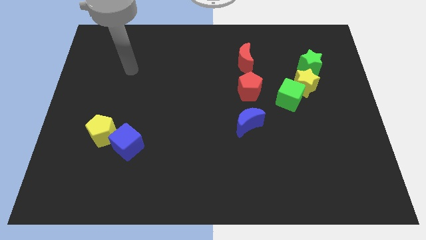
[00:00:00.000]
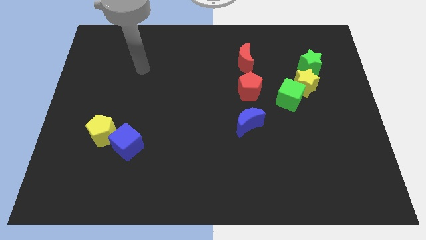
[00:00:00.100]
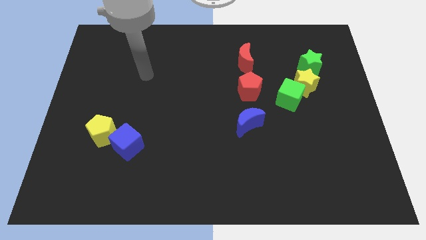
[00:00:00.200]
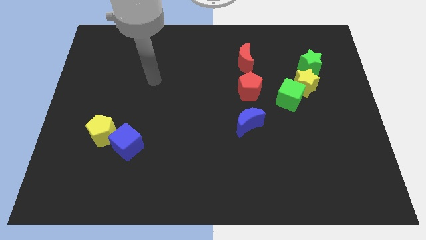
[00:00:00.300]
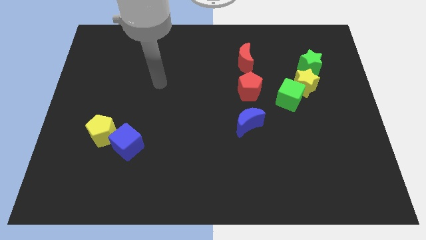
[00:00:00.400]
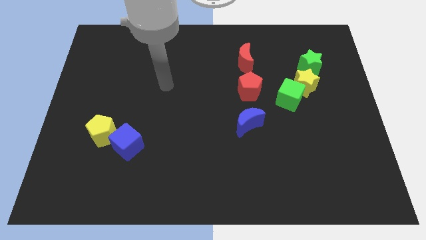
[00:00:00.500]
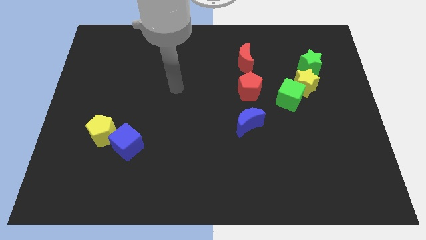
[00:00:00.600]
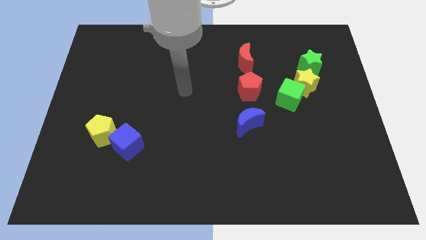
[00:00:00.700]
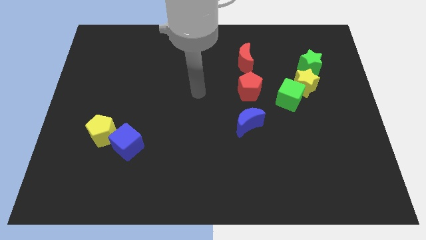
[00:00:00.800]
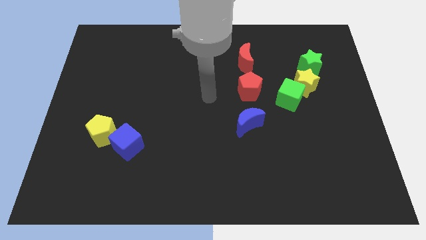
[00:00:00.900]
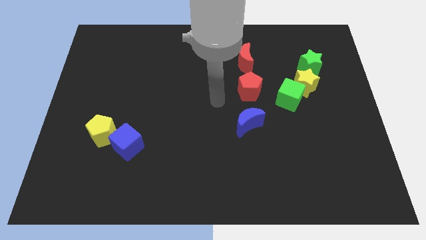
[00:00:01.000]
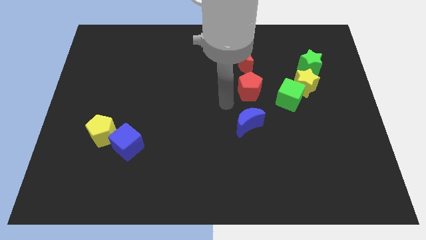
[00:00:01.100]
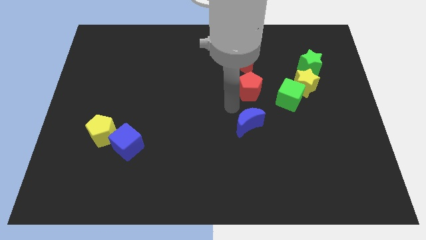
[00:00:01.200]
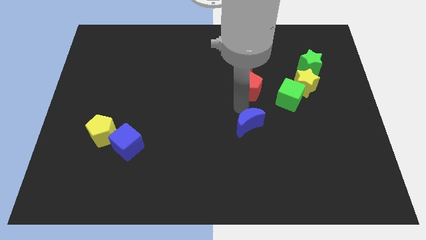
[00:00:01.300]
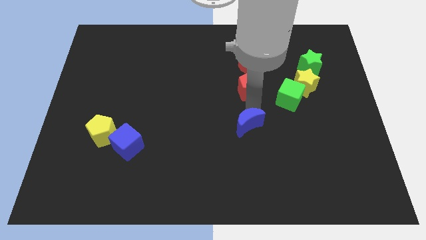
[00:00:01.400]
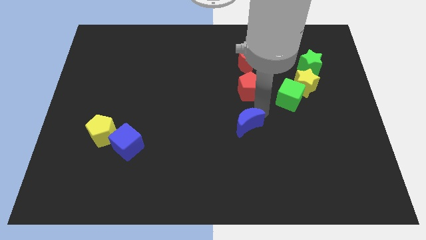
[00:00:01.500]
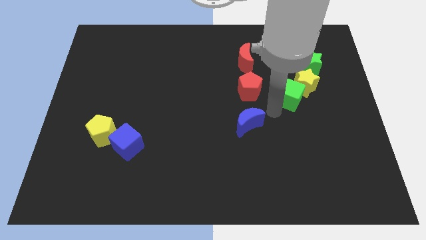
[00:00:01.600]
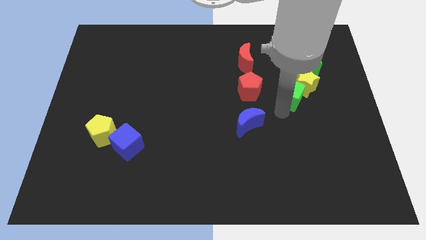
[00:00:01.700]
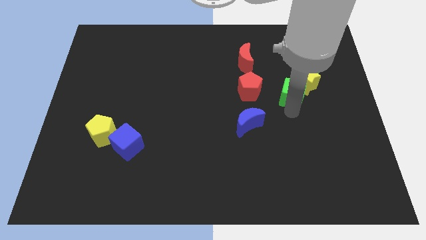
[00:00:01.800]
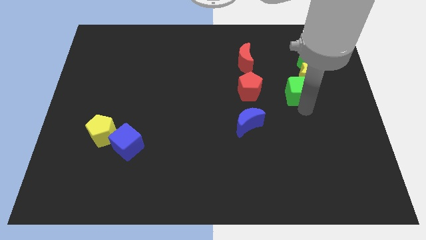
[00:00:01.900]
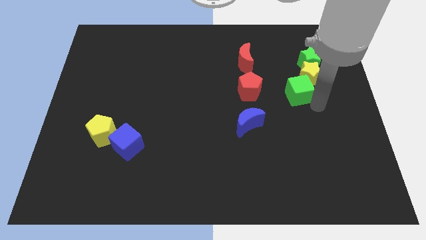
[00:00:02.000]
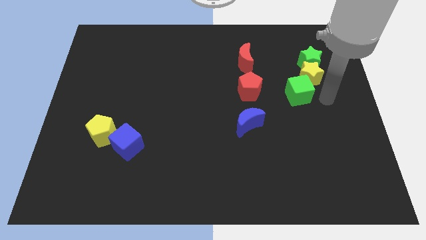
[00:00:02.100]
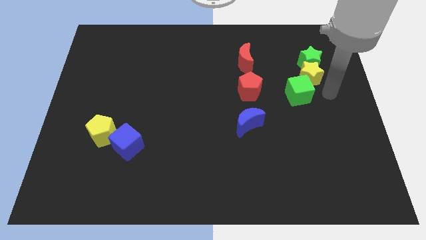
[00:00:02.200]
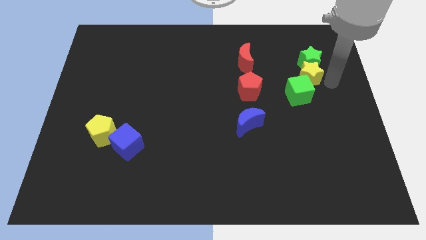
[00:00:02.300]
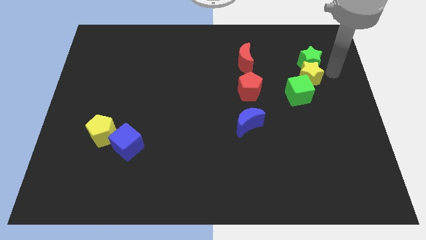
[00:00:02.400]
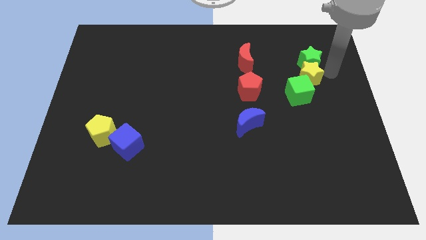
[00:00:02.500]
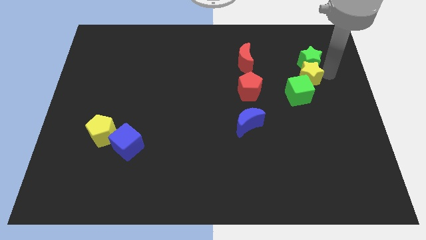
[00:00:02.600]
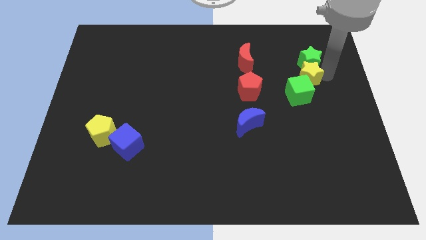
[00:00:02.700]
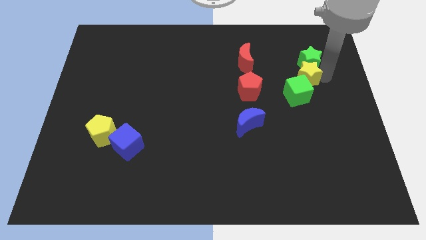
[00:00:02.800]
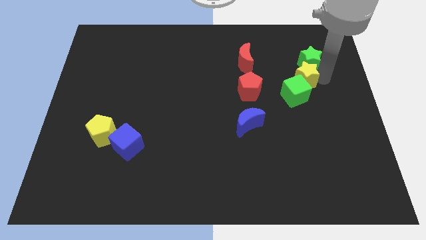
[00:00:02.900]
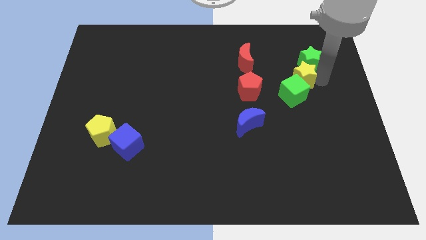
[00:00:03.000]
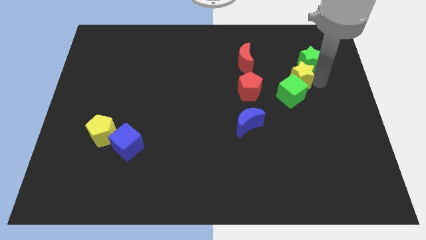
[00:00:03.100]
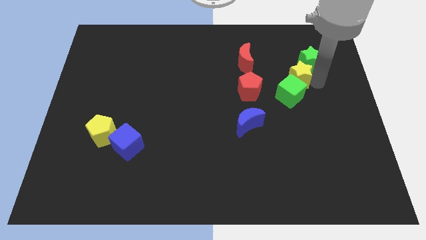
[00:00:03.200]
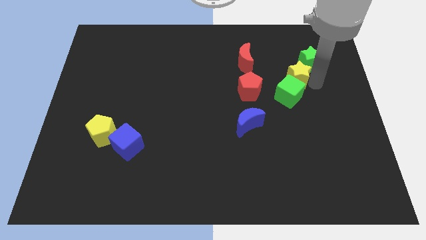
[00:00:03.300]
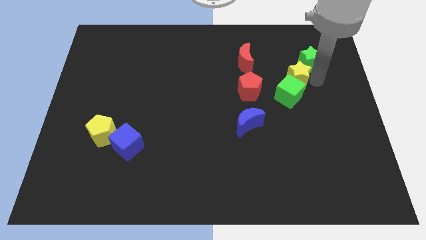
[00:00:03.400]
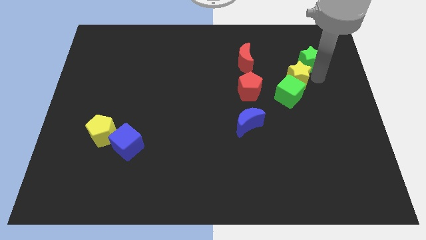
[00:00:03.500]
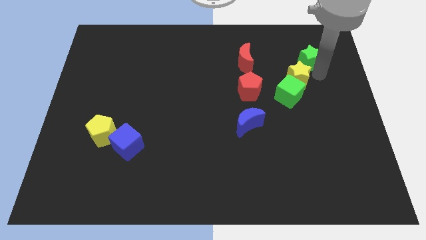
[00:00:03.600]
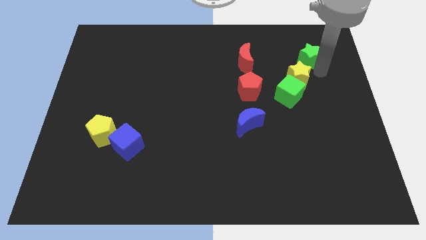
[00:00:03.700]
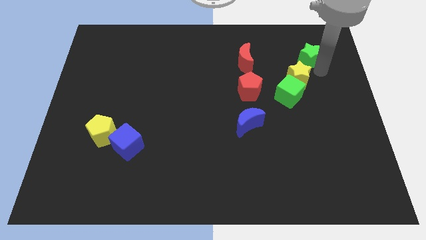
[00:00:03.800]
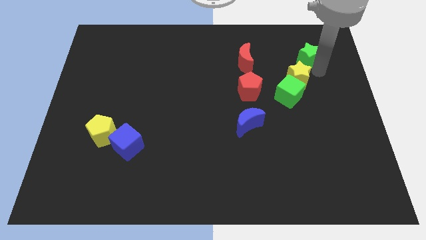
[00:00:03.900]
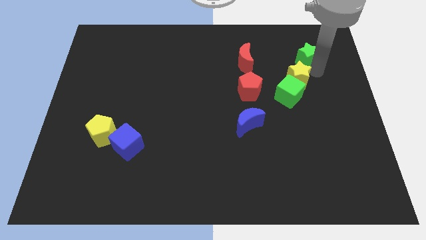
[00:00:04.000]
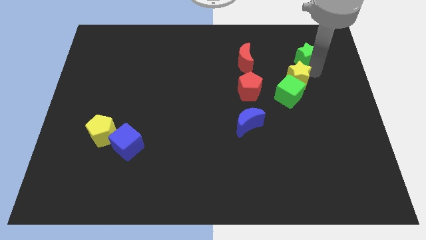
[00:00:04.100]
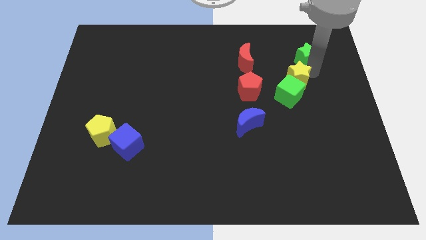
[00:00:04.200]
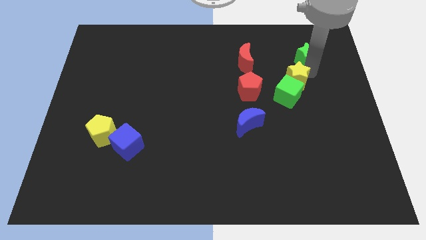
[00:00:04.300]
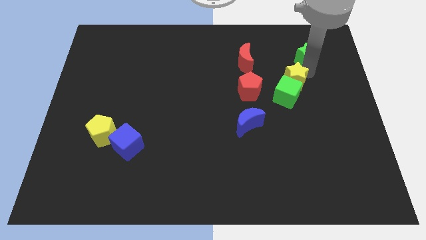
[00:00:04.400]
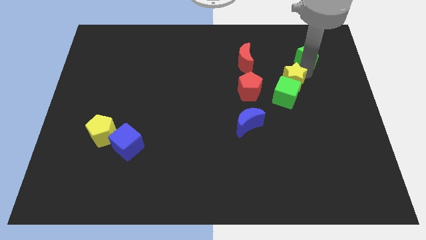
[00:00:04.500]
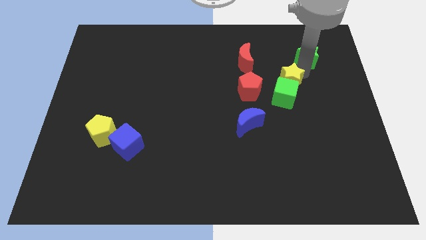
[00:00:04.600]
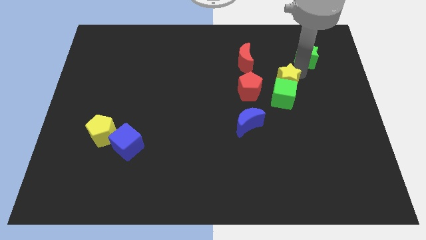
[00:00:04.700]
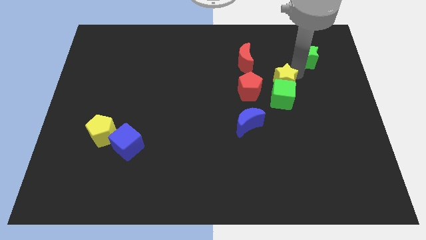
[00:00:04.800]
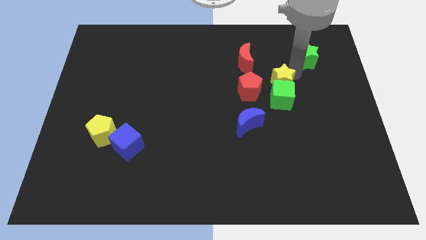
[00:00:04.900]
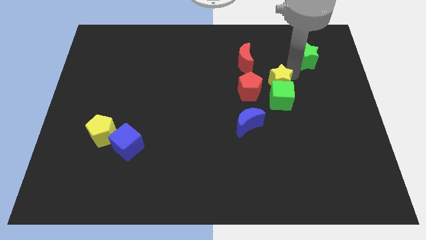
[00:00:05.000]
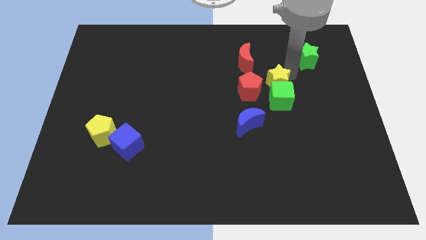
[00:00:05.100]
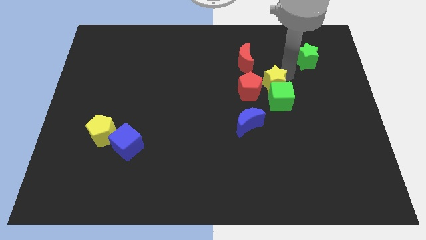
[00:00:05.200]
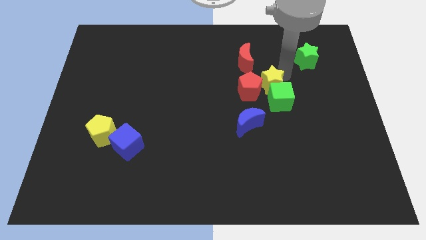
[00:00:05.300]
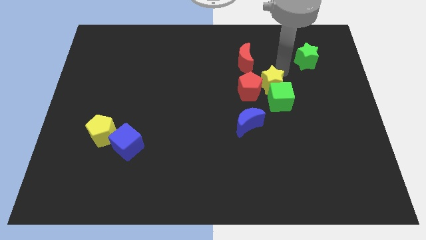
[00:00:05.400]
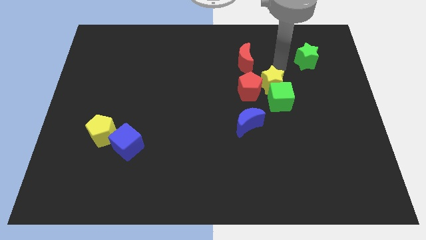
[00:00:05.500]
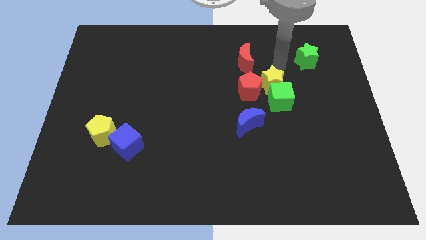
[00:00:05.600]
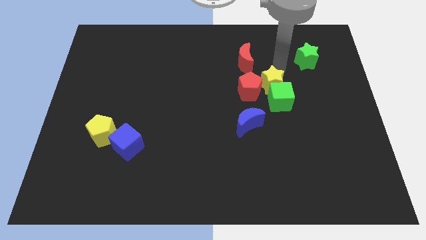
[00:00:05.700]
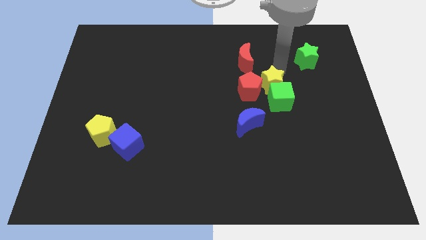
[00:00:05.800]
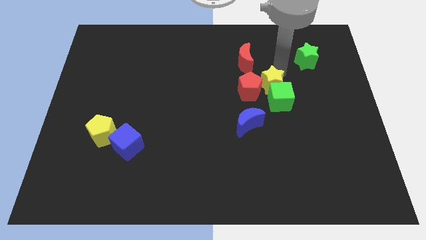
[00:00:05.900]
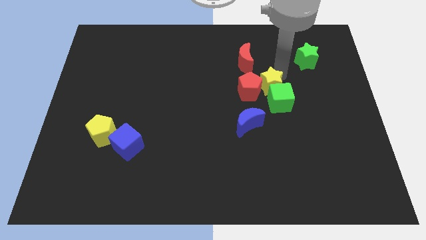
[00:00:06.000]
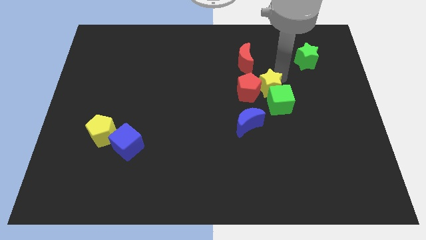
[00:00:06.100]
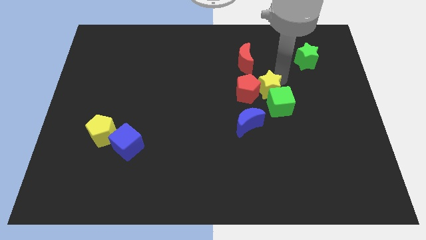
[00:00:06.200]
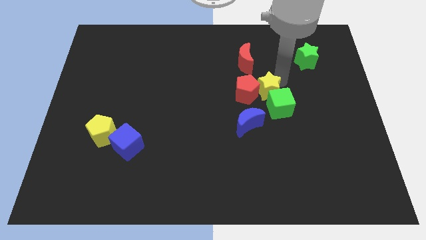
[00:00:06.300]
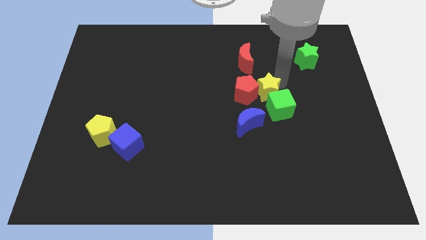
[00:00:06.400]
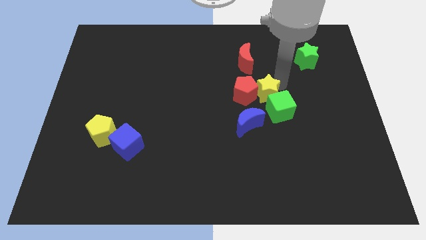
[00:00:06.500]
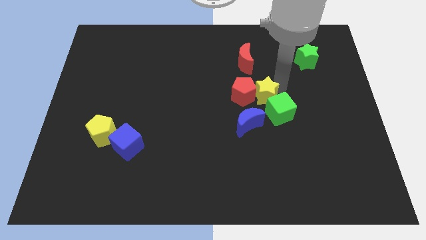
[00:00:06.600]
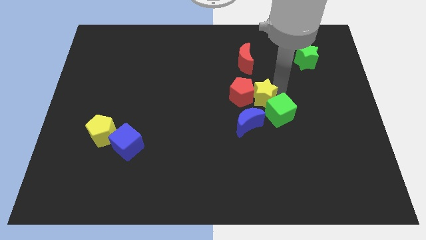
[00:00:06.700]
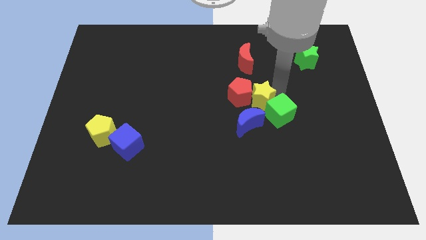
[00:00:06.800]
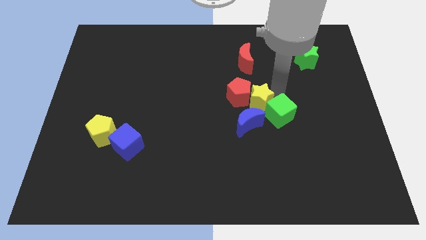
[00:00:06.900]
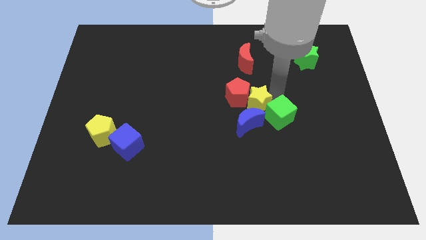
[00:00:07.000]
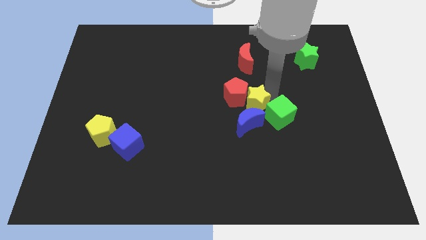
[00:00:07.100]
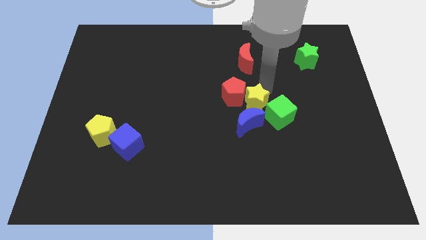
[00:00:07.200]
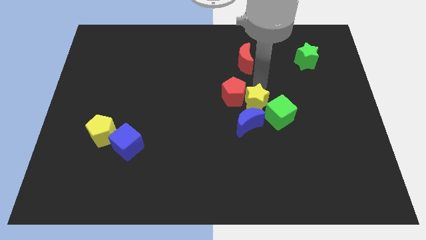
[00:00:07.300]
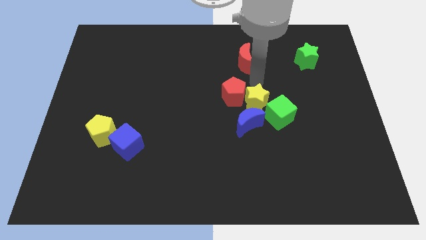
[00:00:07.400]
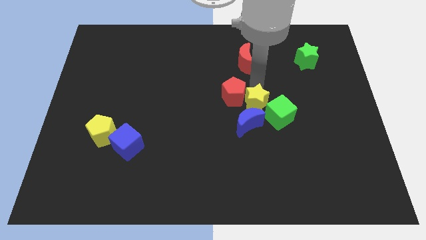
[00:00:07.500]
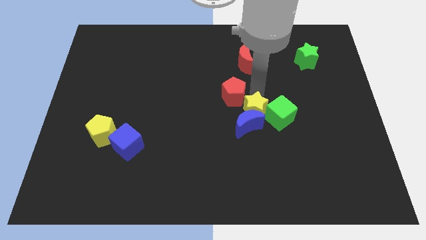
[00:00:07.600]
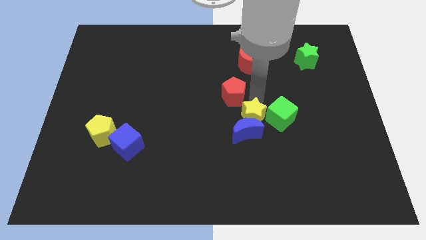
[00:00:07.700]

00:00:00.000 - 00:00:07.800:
slide the yellow star to the bottom left of the green cube
